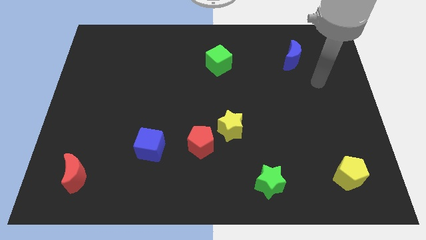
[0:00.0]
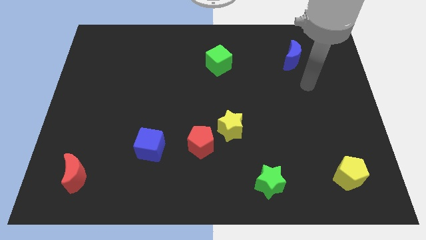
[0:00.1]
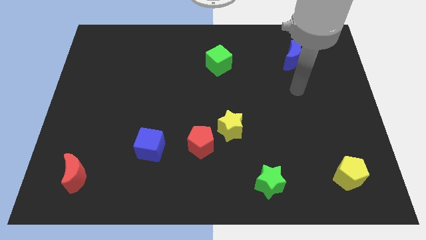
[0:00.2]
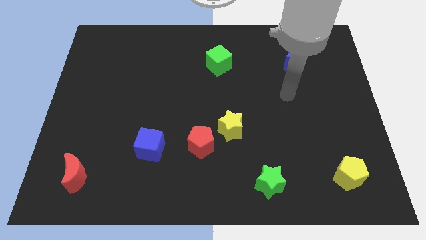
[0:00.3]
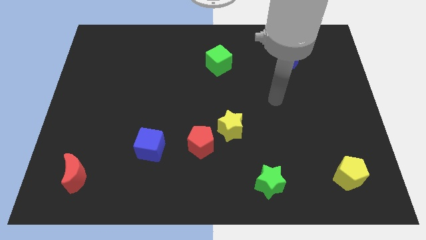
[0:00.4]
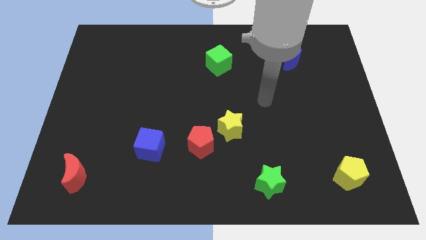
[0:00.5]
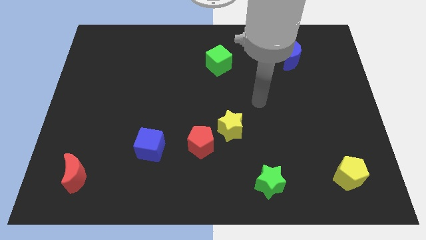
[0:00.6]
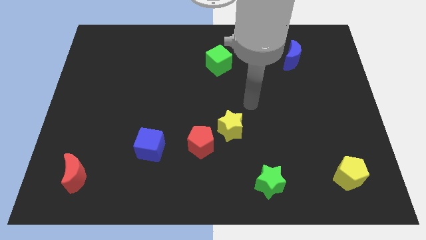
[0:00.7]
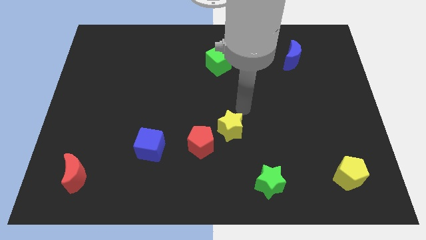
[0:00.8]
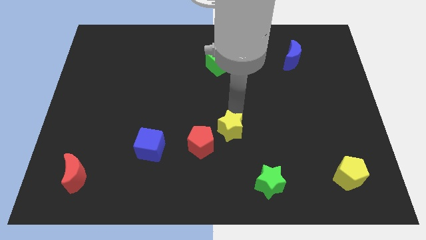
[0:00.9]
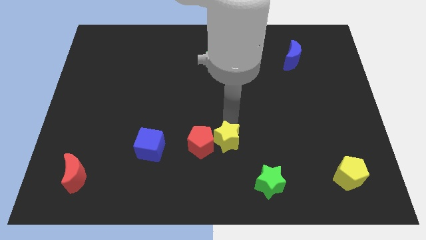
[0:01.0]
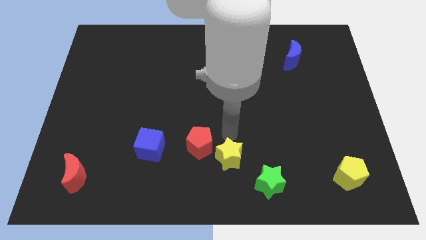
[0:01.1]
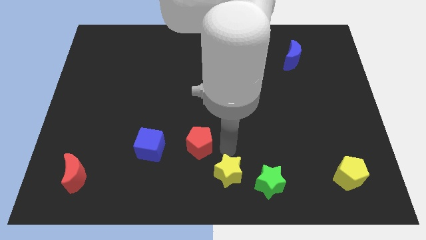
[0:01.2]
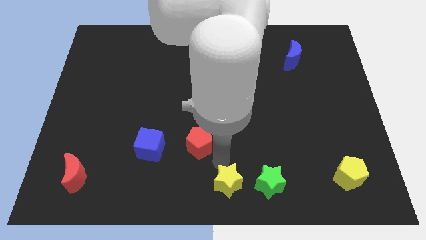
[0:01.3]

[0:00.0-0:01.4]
move the red pentagon away from the yellow star

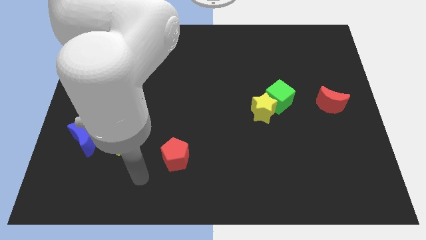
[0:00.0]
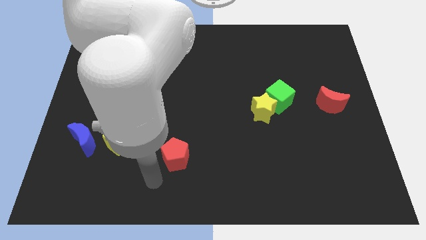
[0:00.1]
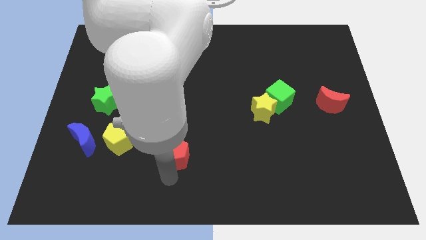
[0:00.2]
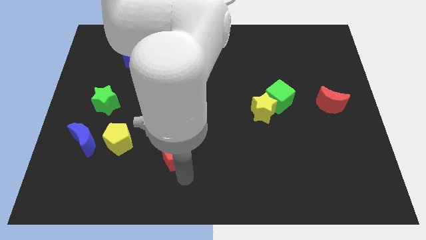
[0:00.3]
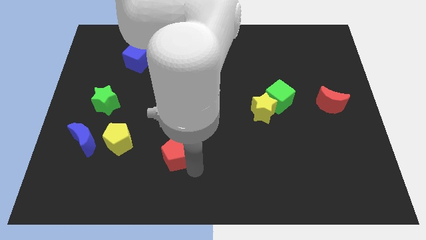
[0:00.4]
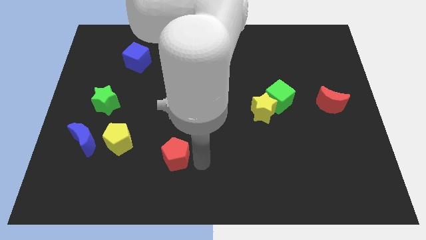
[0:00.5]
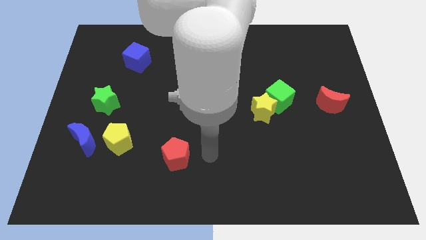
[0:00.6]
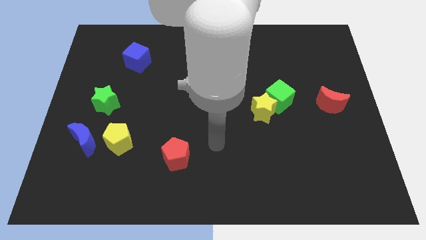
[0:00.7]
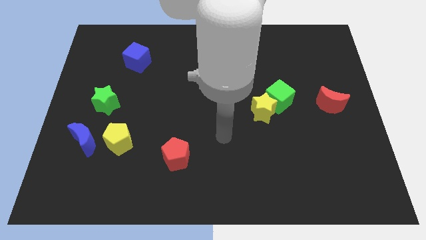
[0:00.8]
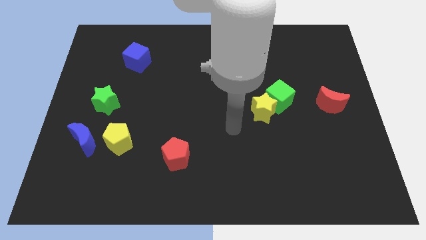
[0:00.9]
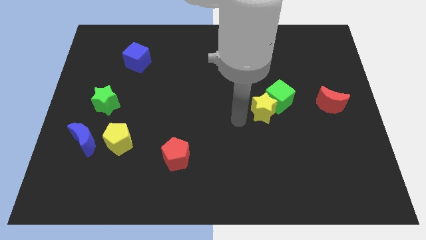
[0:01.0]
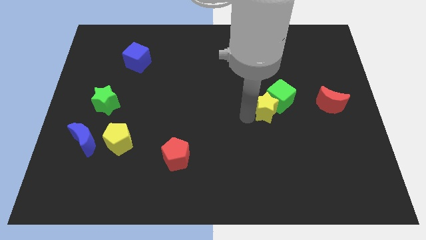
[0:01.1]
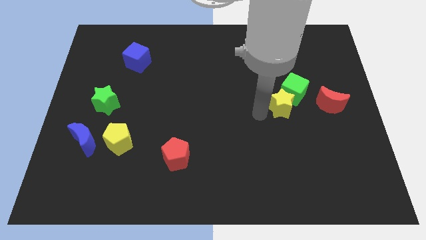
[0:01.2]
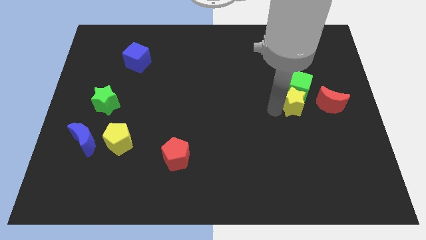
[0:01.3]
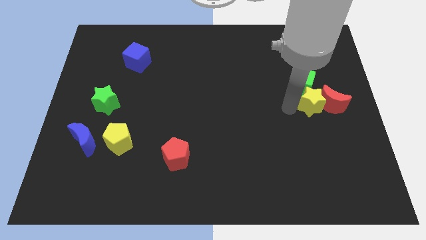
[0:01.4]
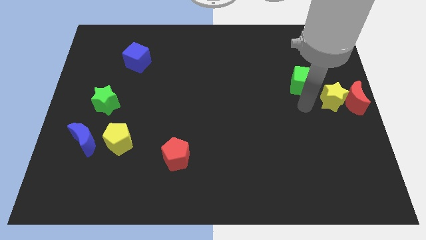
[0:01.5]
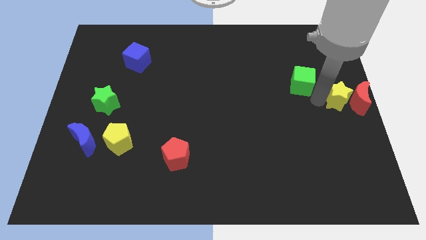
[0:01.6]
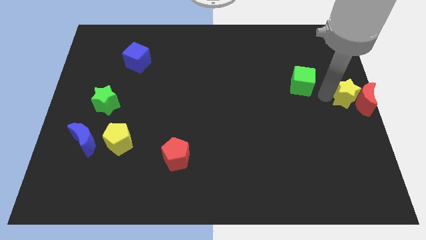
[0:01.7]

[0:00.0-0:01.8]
pull the green cube apart from the yellow star

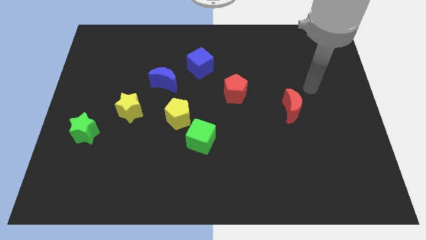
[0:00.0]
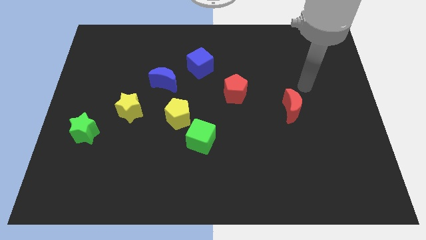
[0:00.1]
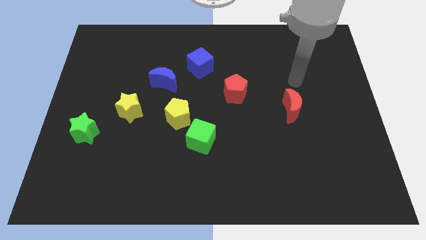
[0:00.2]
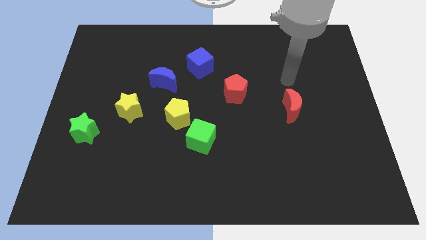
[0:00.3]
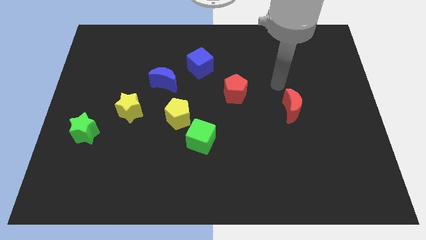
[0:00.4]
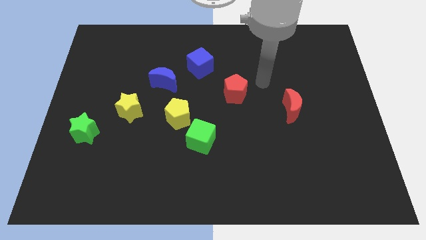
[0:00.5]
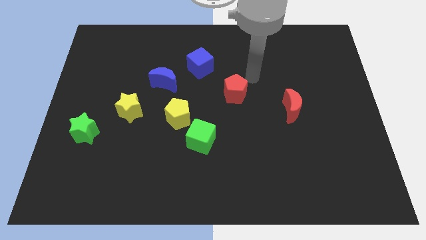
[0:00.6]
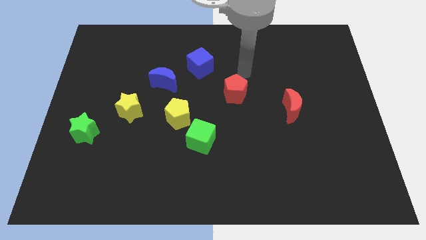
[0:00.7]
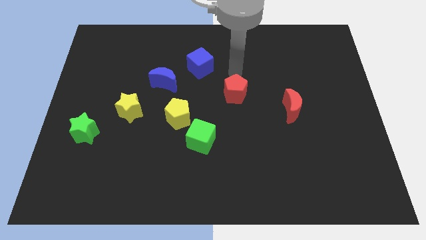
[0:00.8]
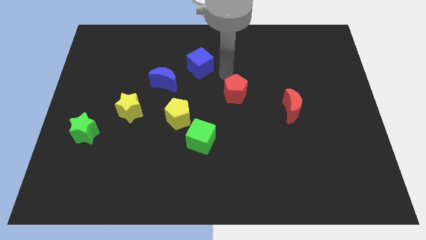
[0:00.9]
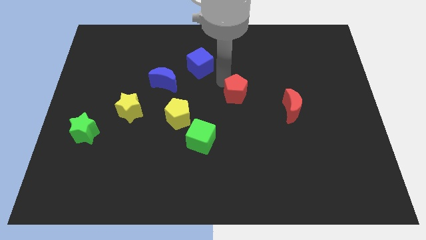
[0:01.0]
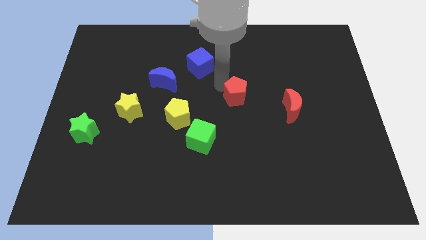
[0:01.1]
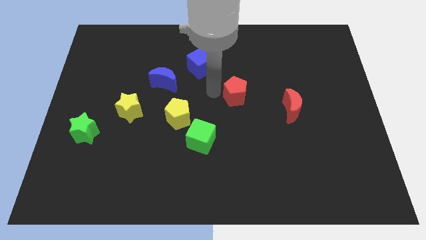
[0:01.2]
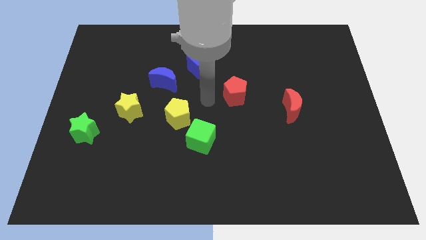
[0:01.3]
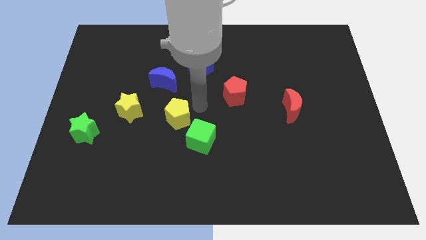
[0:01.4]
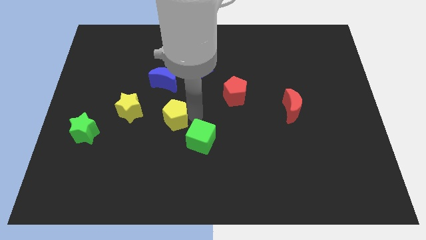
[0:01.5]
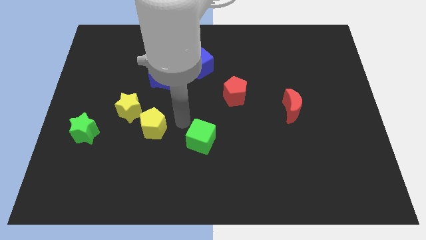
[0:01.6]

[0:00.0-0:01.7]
move the green cube away from the yellow pentagon

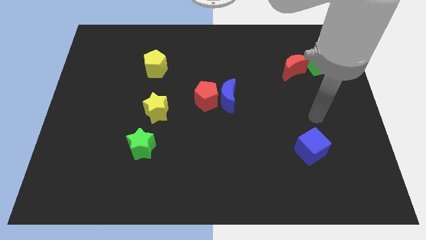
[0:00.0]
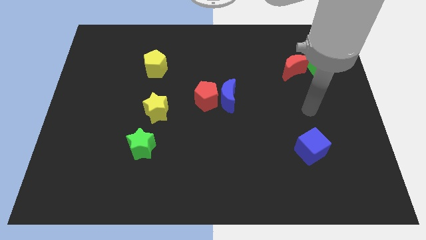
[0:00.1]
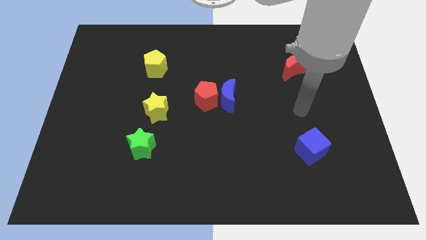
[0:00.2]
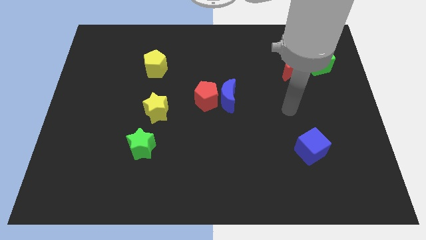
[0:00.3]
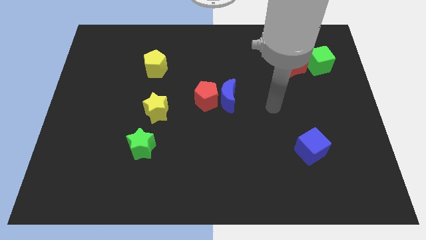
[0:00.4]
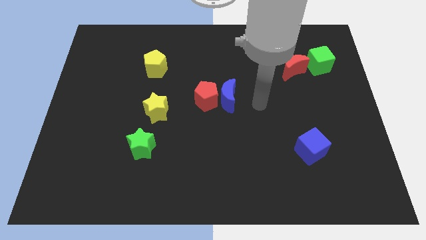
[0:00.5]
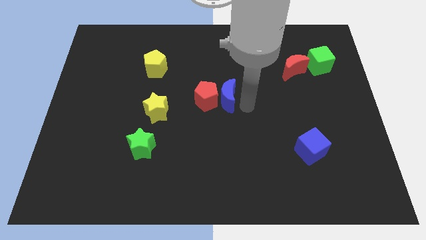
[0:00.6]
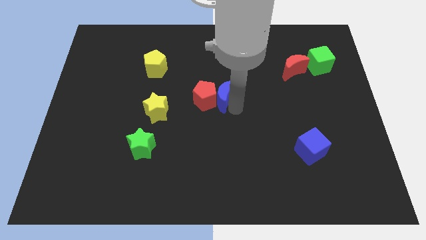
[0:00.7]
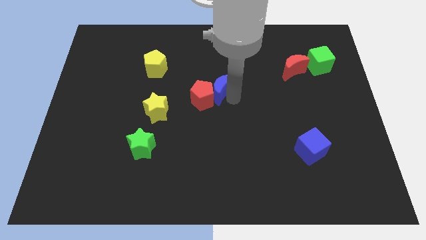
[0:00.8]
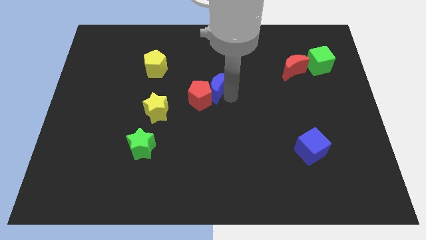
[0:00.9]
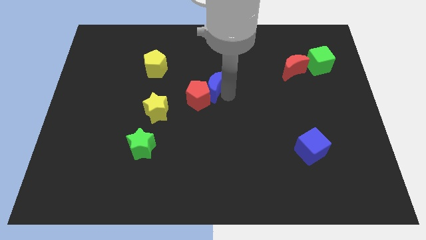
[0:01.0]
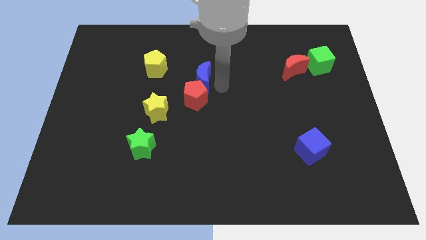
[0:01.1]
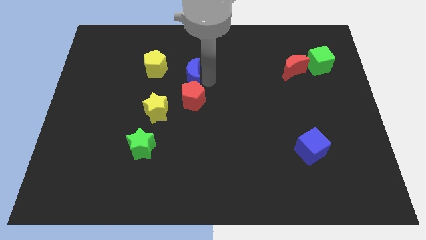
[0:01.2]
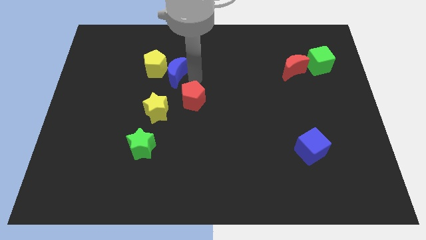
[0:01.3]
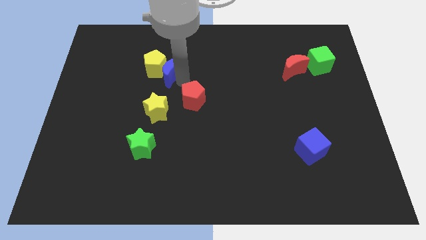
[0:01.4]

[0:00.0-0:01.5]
pull the red pentagon apart from the blue moon

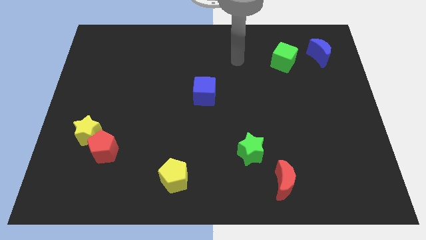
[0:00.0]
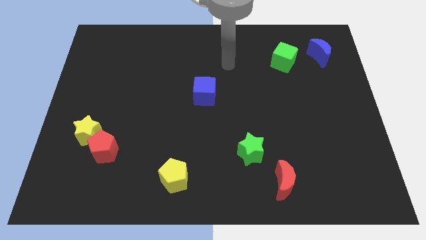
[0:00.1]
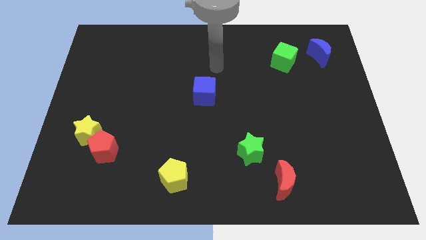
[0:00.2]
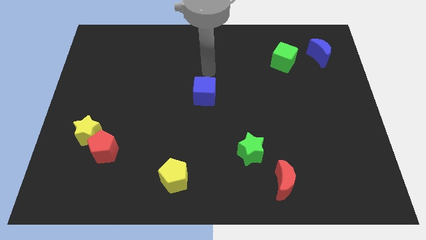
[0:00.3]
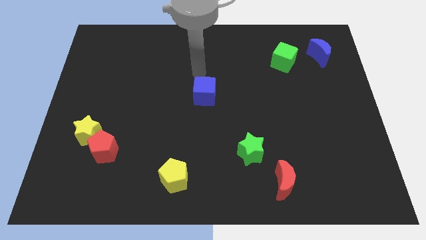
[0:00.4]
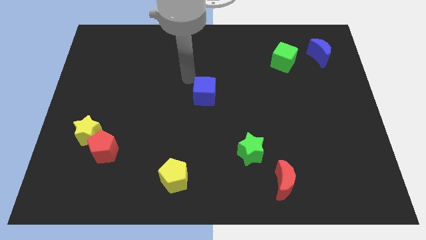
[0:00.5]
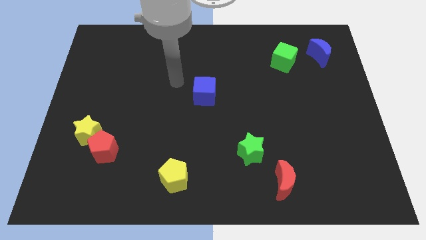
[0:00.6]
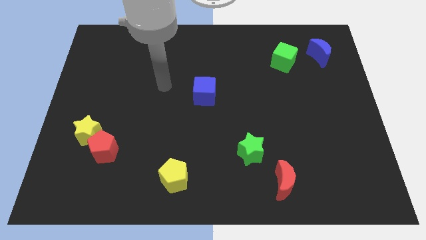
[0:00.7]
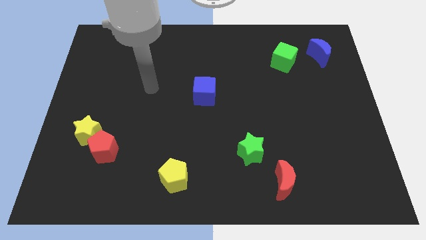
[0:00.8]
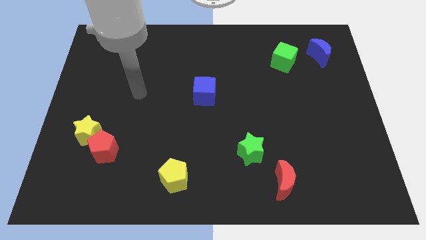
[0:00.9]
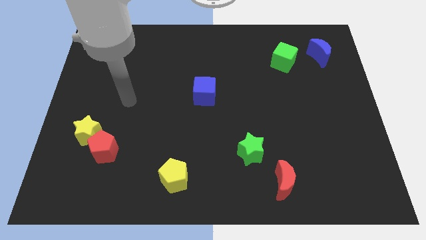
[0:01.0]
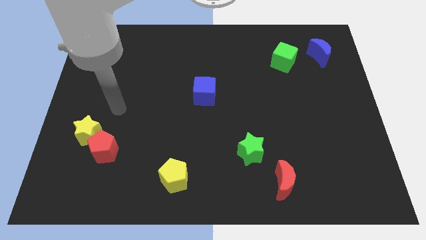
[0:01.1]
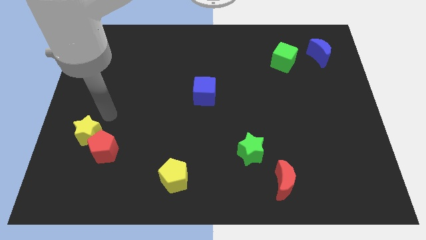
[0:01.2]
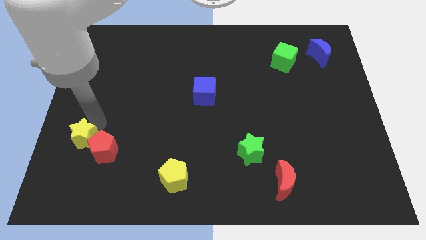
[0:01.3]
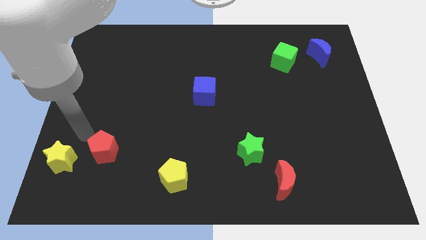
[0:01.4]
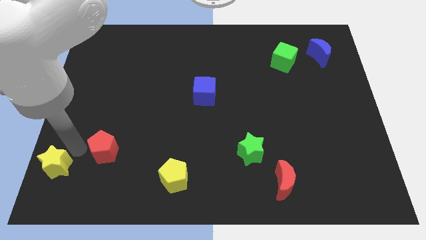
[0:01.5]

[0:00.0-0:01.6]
pull the red pentagon apart from the yellow star

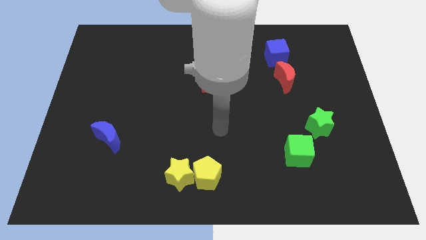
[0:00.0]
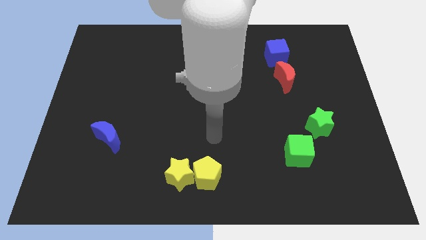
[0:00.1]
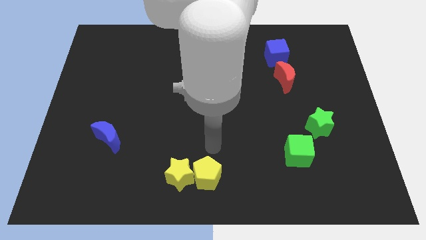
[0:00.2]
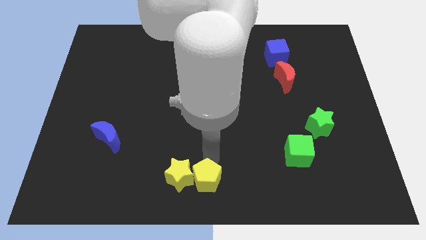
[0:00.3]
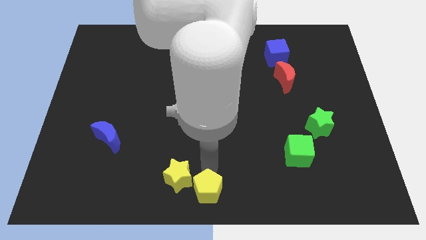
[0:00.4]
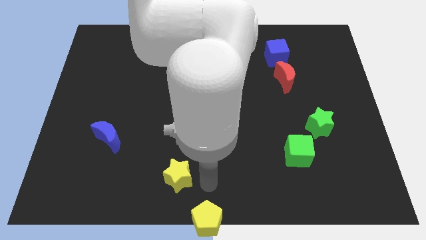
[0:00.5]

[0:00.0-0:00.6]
separate the yellow star from the yellow pentagon

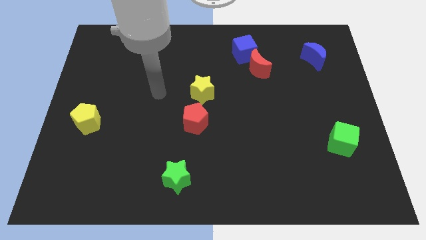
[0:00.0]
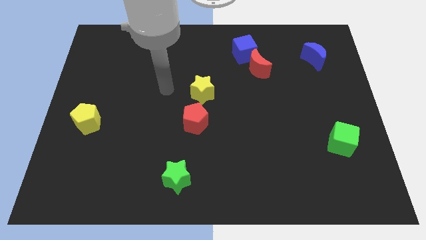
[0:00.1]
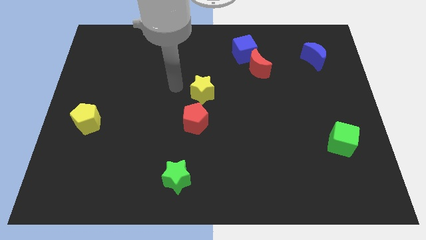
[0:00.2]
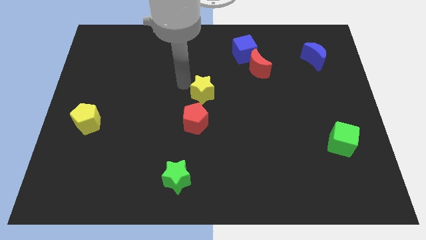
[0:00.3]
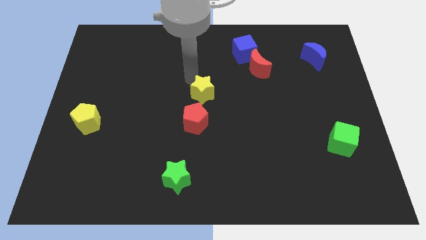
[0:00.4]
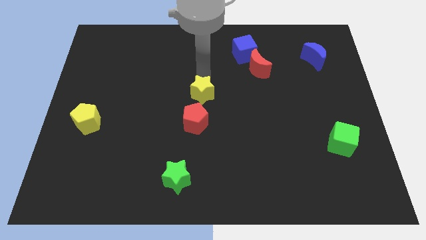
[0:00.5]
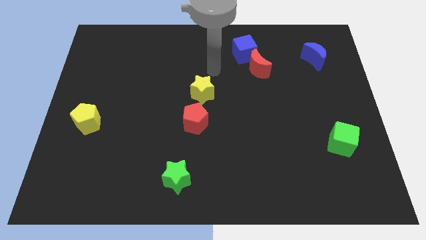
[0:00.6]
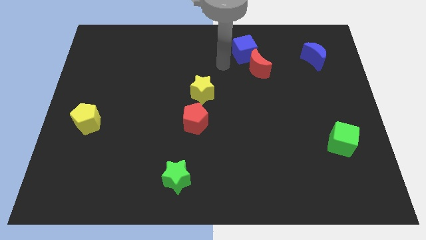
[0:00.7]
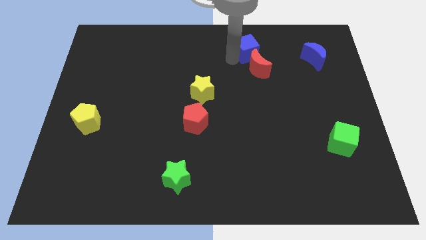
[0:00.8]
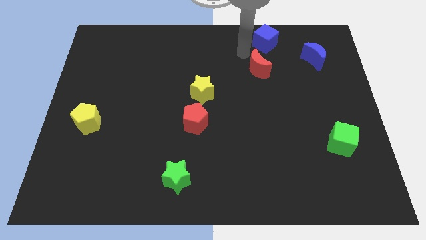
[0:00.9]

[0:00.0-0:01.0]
pull the red moon apart from the blue cube
